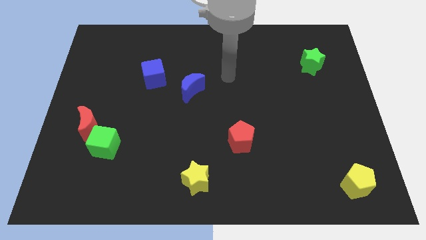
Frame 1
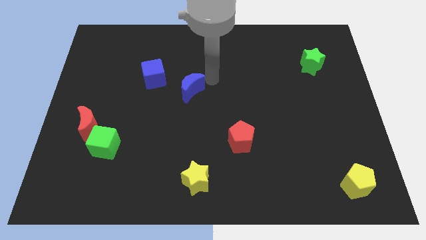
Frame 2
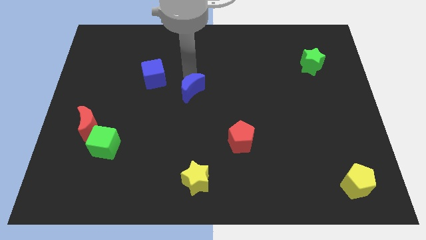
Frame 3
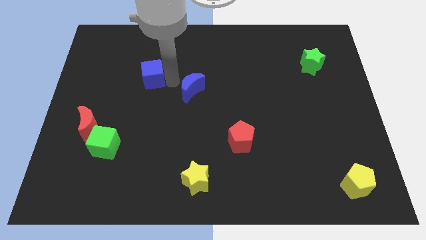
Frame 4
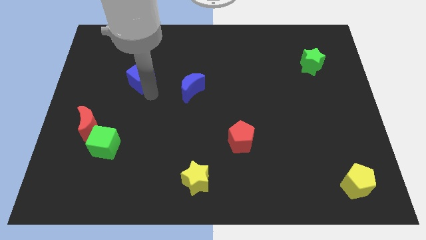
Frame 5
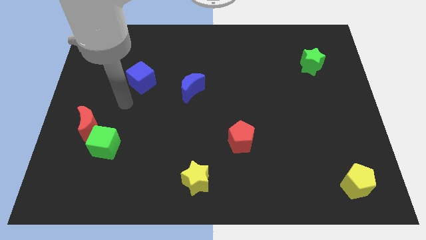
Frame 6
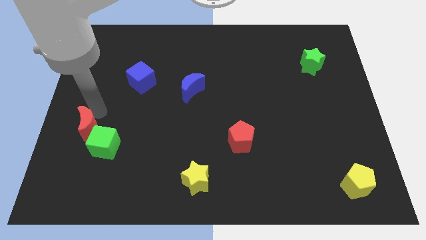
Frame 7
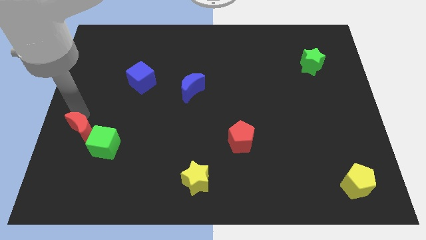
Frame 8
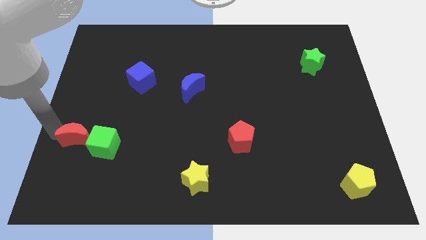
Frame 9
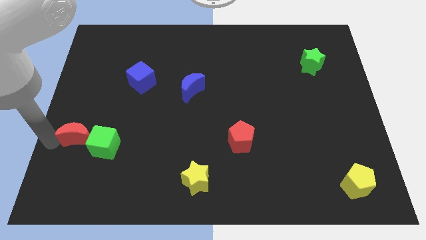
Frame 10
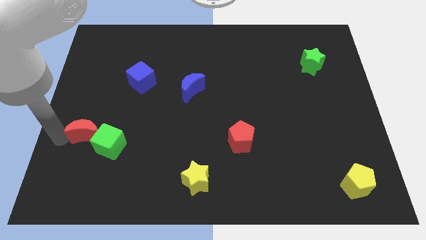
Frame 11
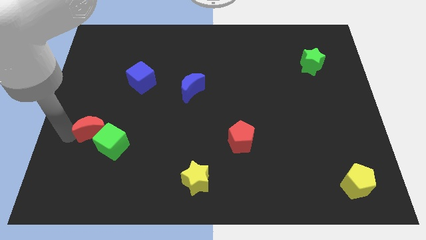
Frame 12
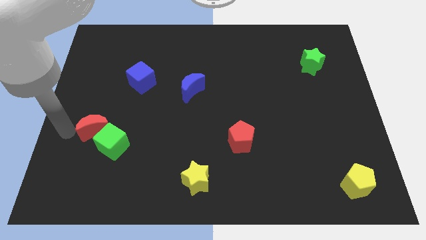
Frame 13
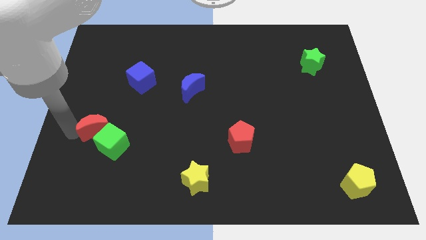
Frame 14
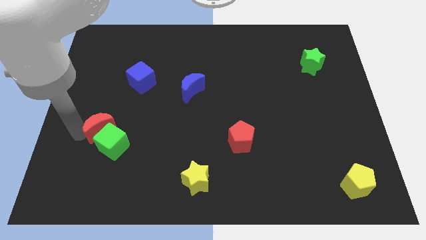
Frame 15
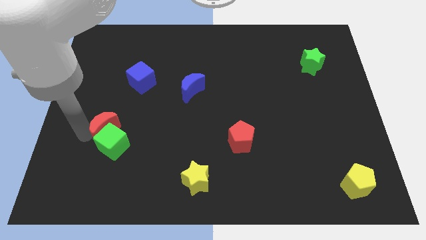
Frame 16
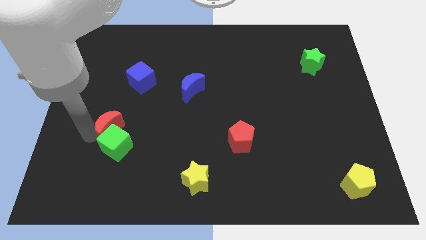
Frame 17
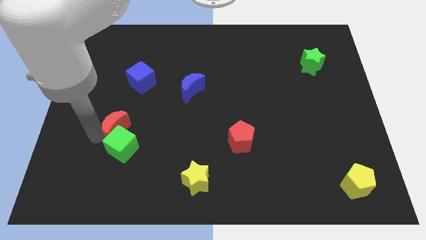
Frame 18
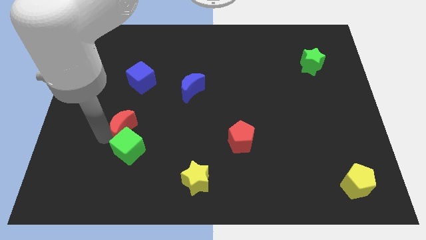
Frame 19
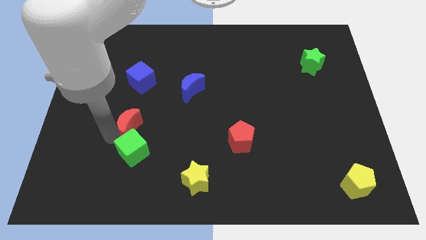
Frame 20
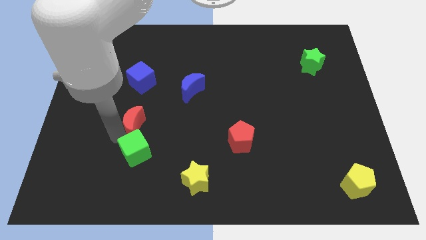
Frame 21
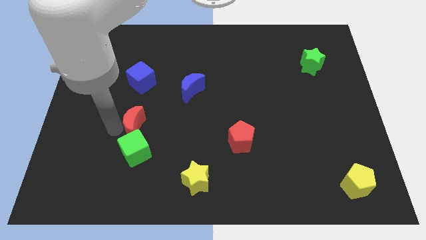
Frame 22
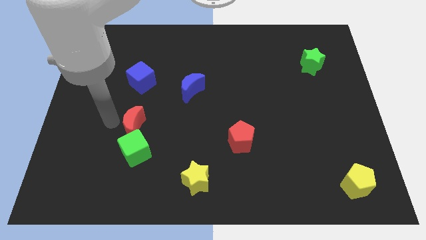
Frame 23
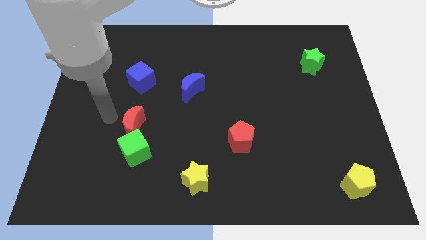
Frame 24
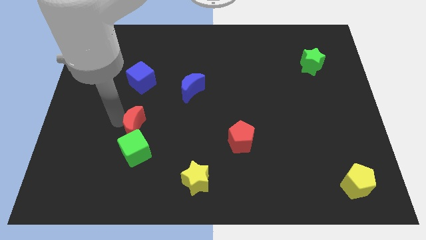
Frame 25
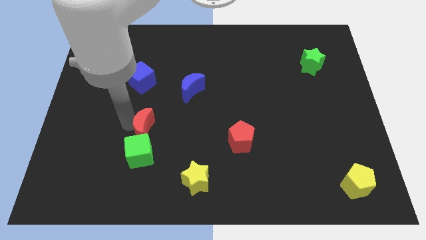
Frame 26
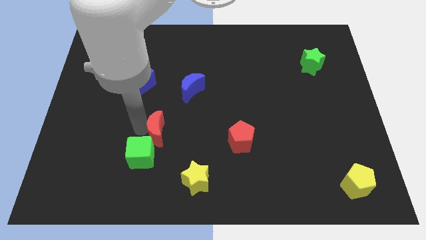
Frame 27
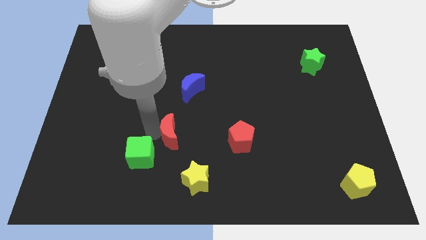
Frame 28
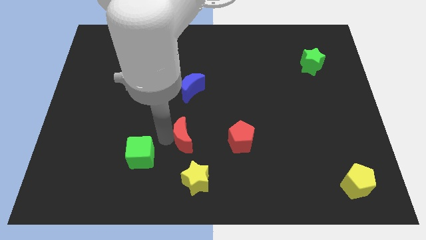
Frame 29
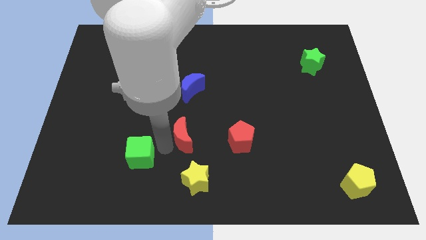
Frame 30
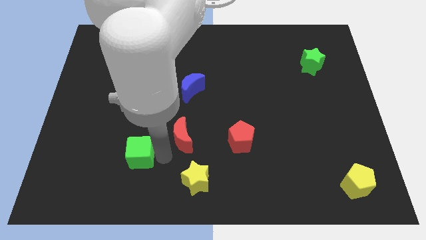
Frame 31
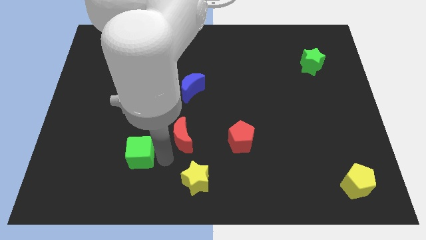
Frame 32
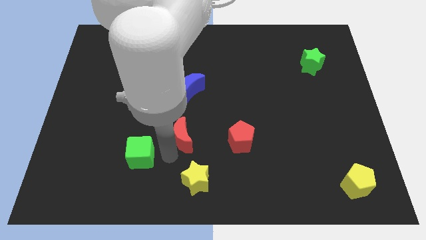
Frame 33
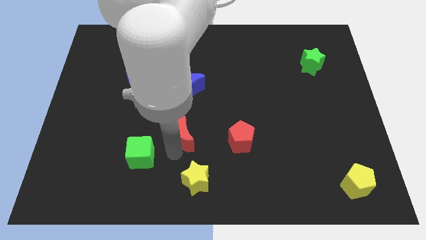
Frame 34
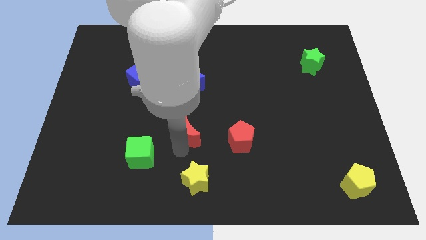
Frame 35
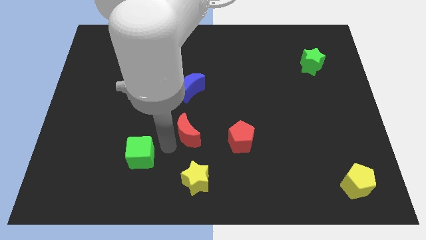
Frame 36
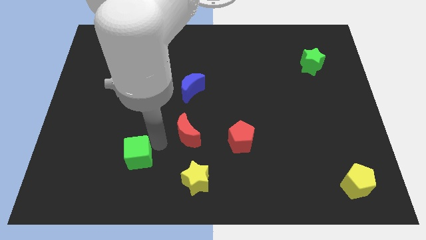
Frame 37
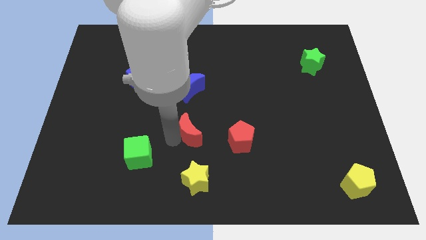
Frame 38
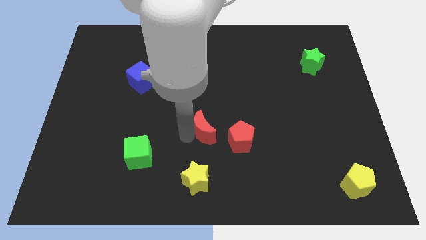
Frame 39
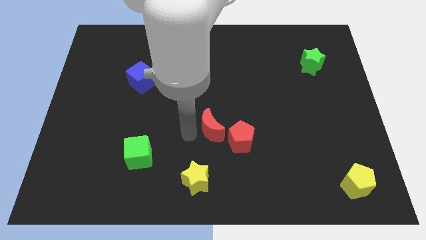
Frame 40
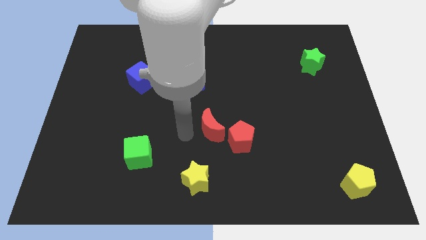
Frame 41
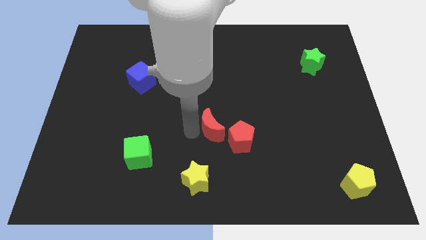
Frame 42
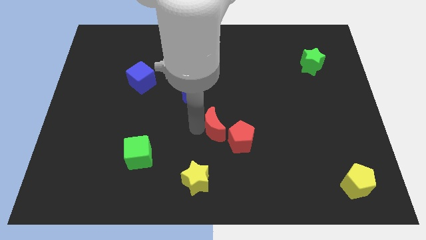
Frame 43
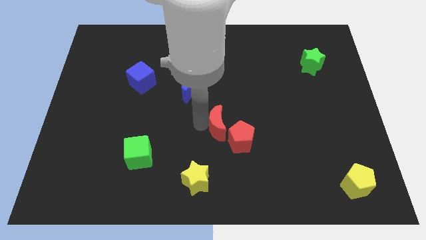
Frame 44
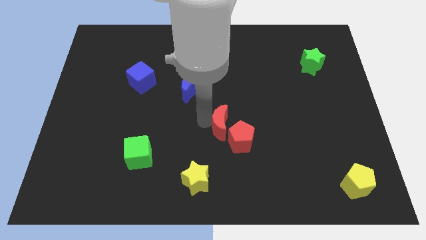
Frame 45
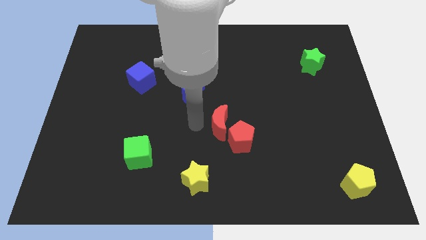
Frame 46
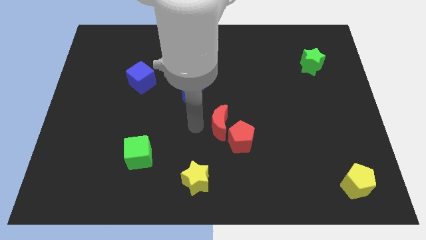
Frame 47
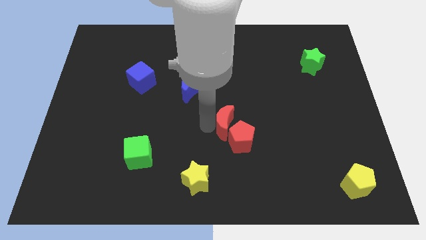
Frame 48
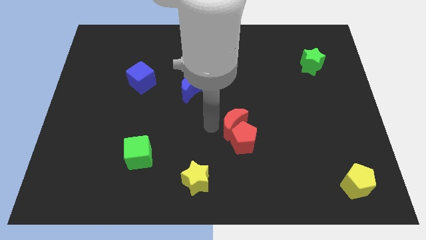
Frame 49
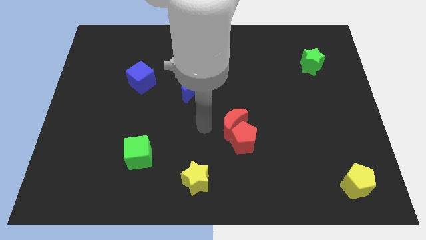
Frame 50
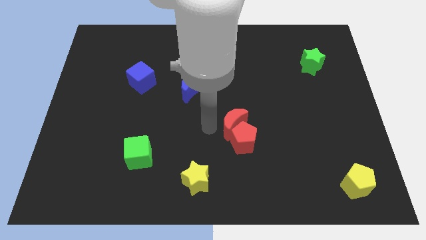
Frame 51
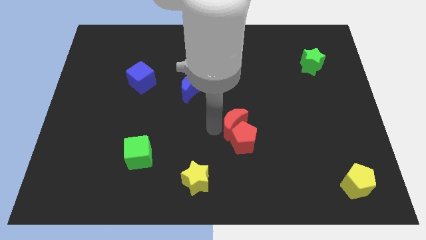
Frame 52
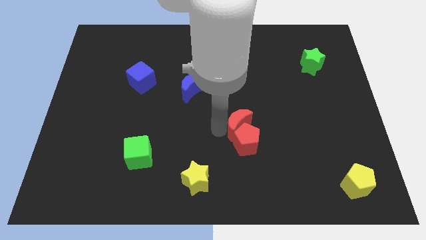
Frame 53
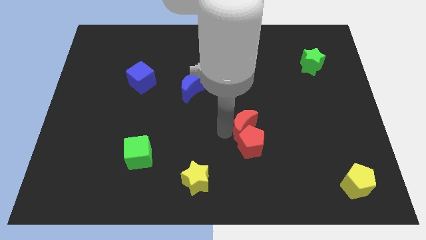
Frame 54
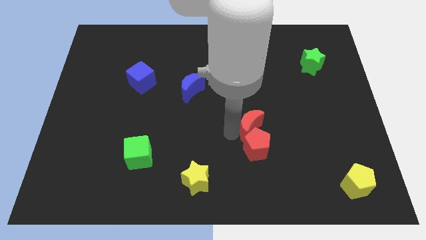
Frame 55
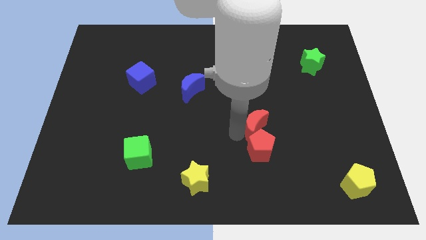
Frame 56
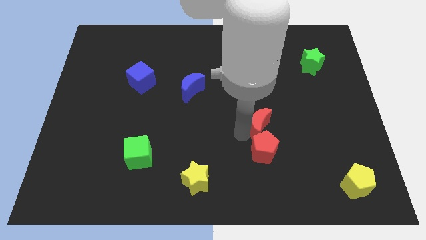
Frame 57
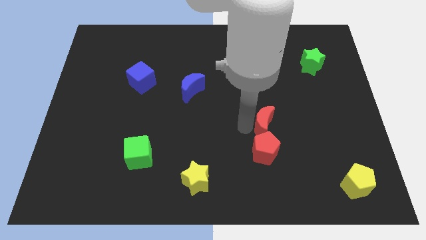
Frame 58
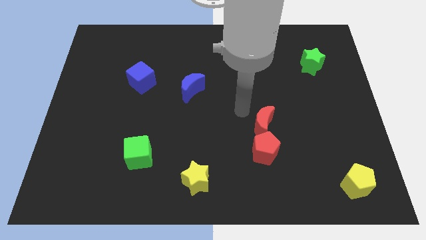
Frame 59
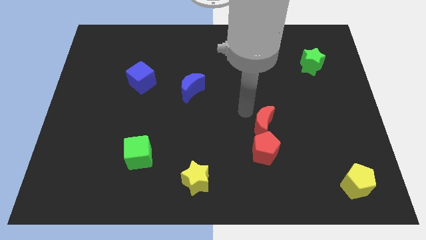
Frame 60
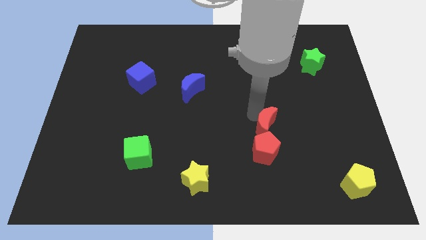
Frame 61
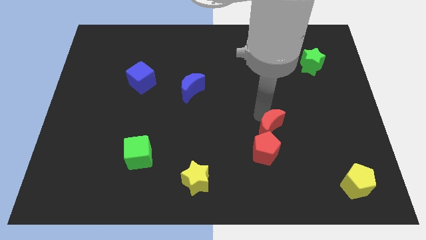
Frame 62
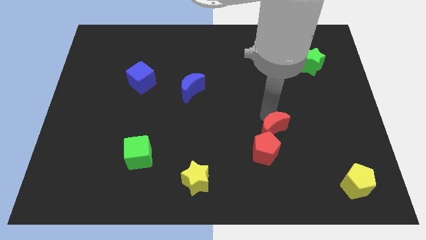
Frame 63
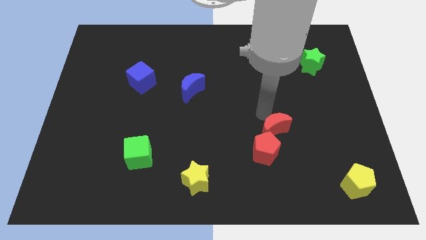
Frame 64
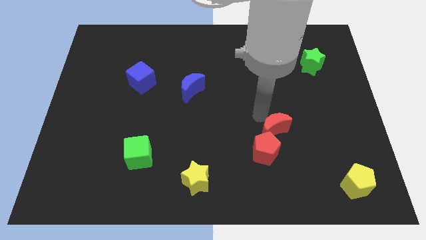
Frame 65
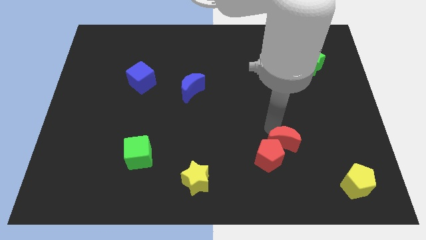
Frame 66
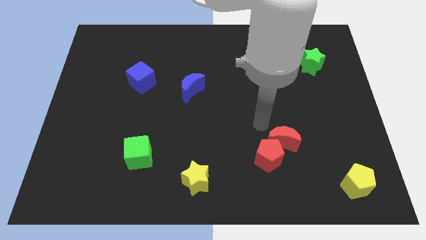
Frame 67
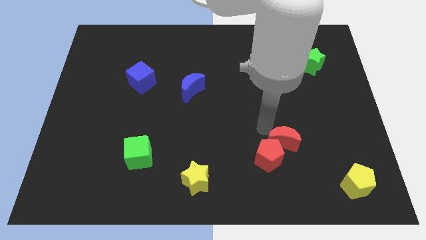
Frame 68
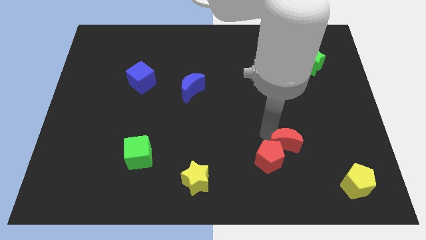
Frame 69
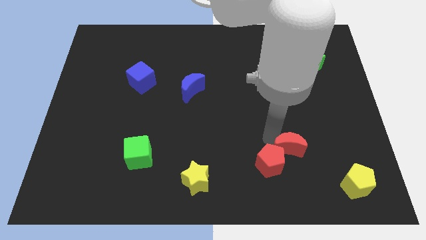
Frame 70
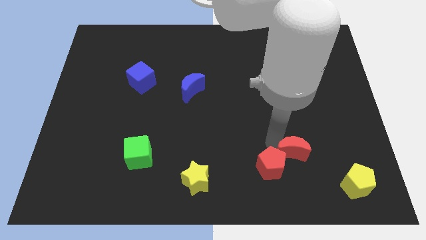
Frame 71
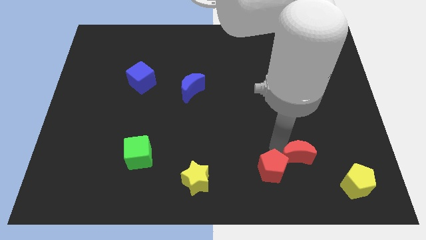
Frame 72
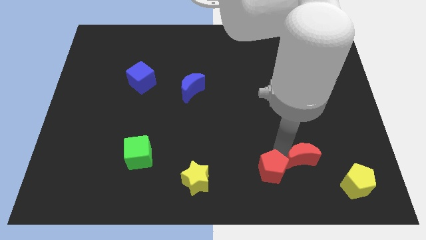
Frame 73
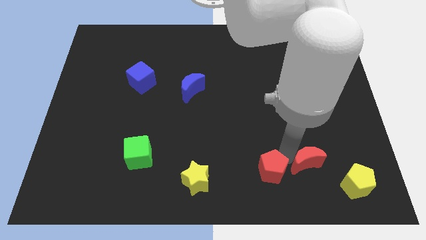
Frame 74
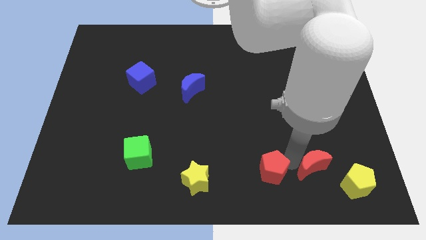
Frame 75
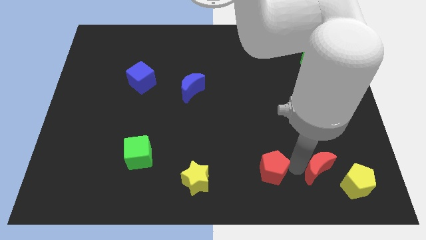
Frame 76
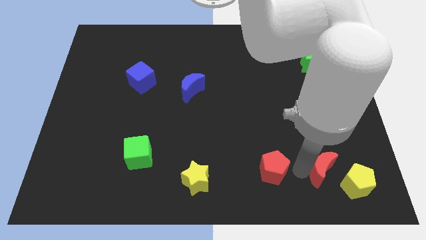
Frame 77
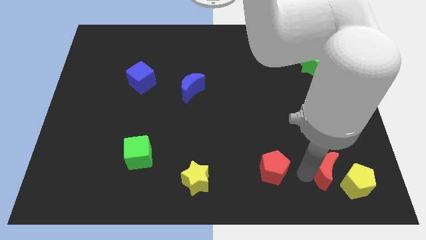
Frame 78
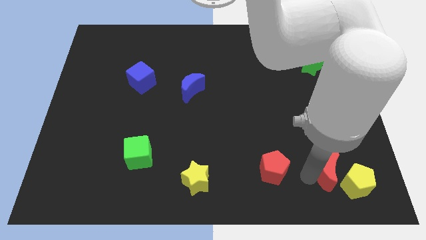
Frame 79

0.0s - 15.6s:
push the red moon towards the yellow pentagon
